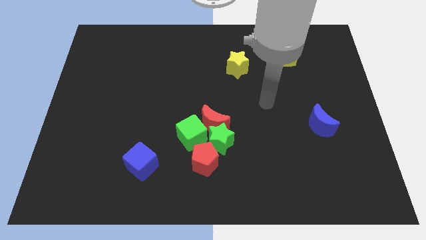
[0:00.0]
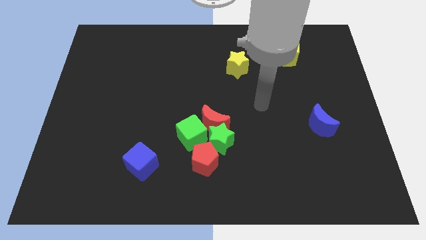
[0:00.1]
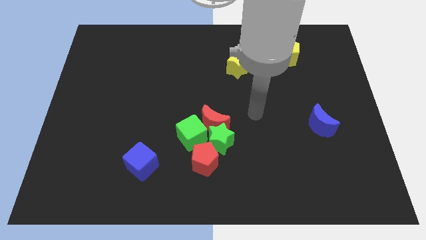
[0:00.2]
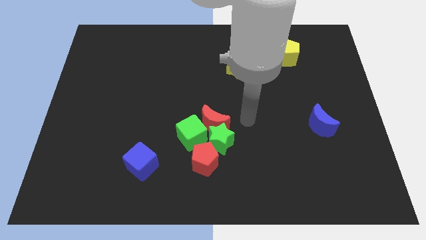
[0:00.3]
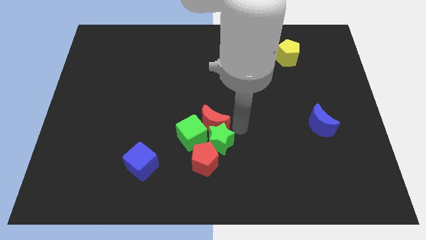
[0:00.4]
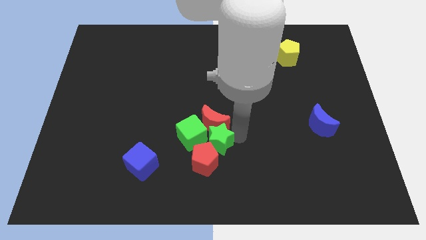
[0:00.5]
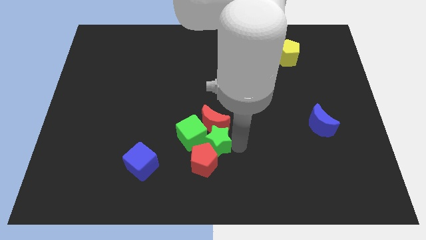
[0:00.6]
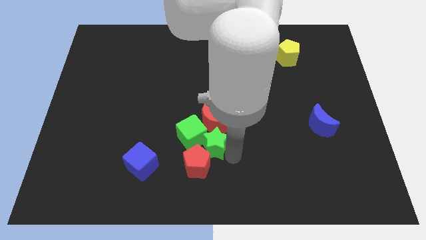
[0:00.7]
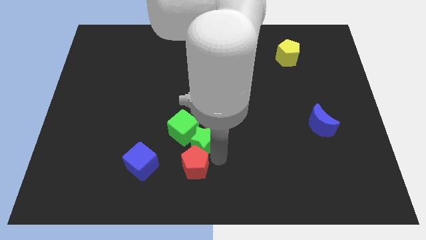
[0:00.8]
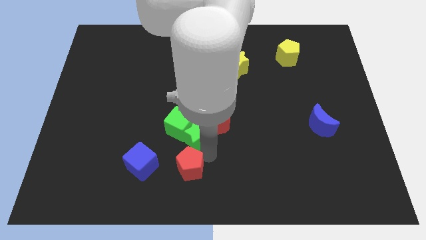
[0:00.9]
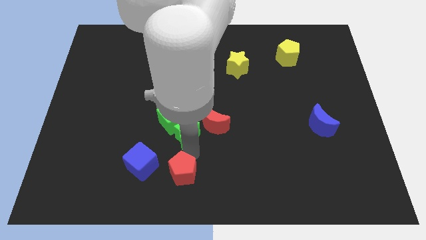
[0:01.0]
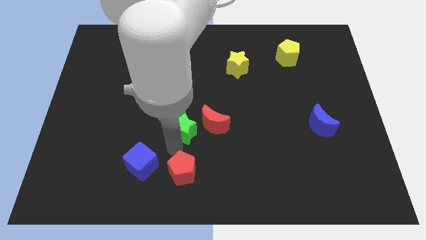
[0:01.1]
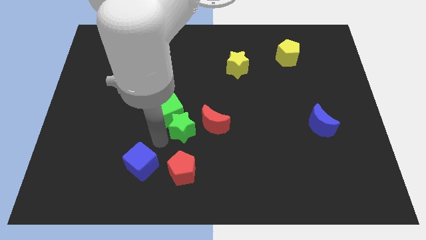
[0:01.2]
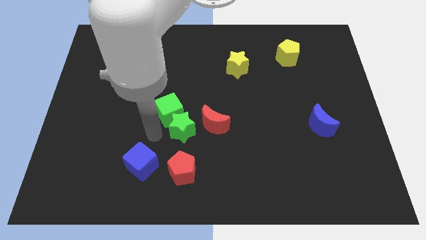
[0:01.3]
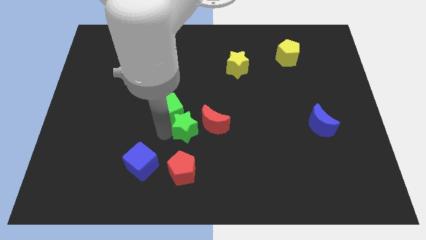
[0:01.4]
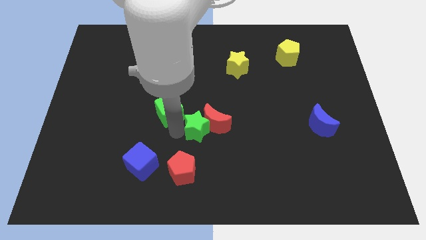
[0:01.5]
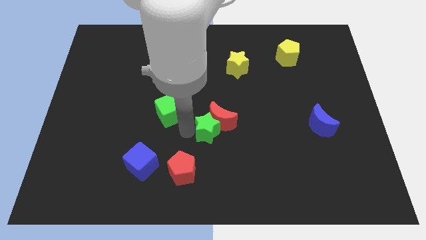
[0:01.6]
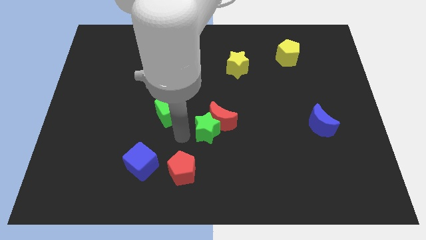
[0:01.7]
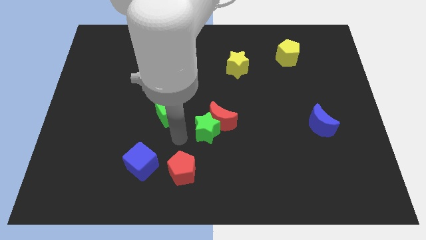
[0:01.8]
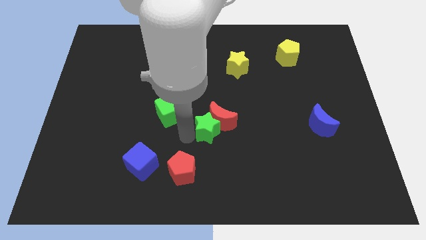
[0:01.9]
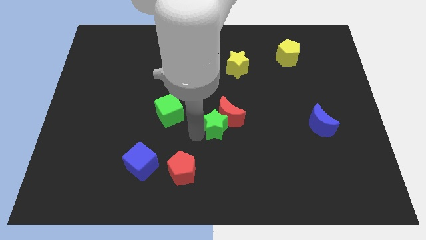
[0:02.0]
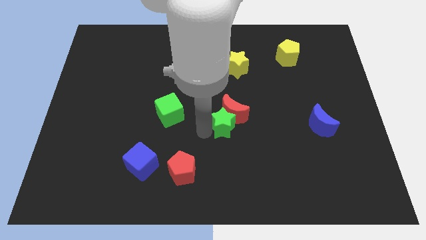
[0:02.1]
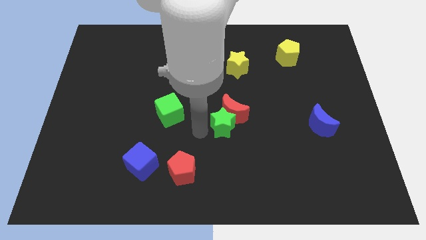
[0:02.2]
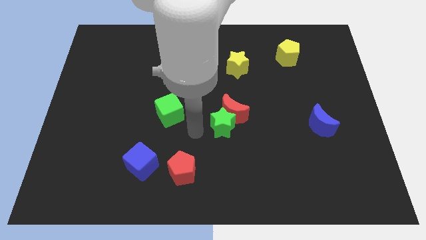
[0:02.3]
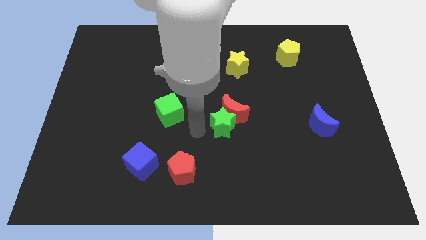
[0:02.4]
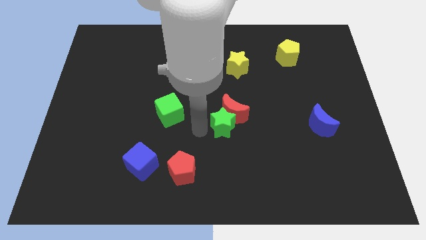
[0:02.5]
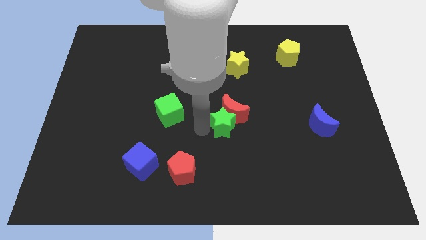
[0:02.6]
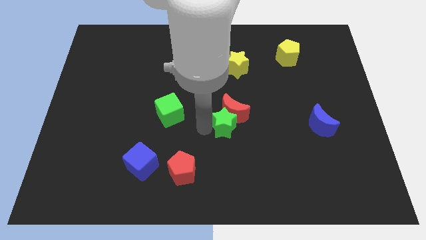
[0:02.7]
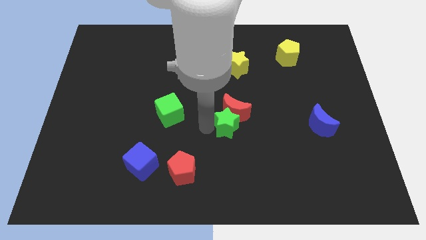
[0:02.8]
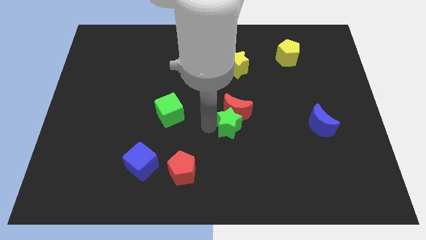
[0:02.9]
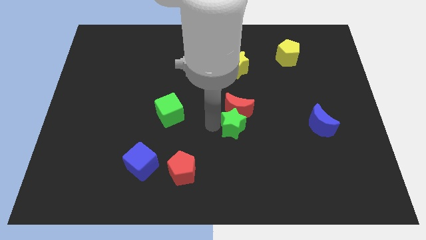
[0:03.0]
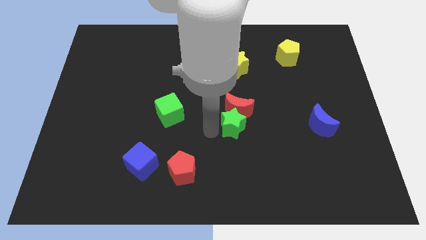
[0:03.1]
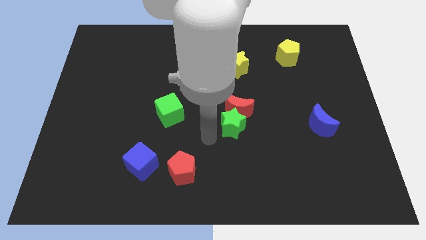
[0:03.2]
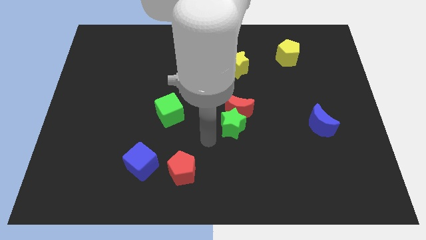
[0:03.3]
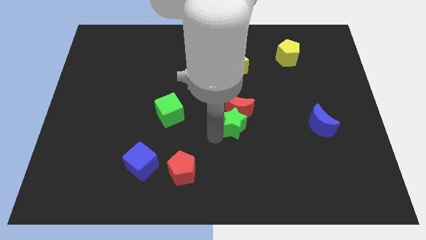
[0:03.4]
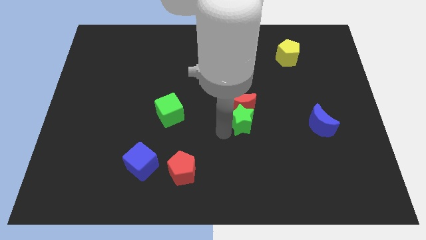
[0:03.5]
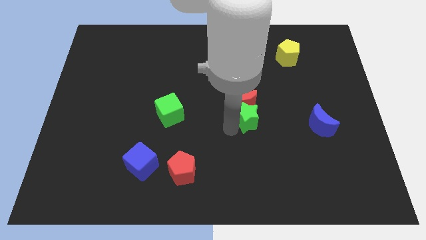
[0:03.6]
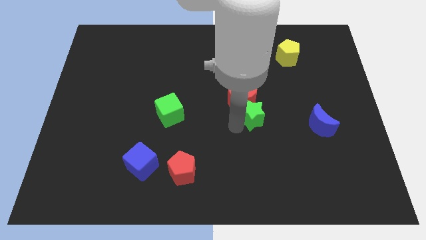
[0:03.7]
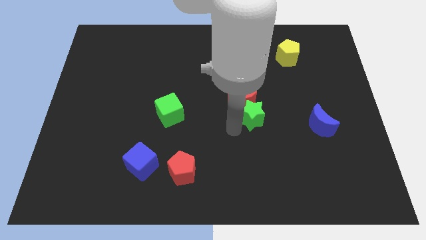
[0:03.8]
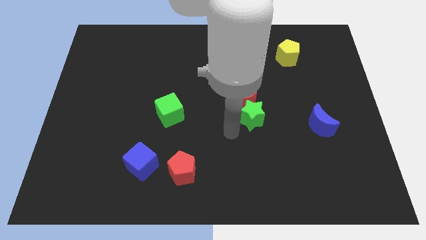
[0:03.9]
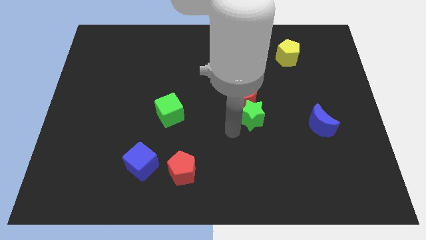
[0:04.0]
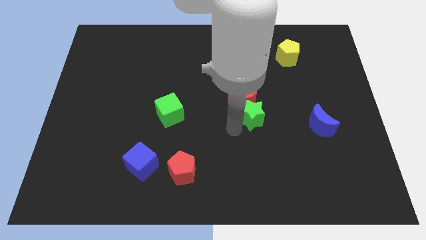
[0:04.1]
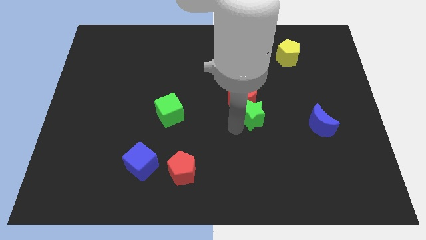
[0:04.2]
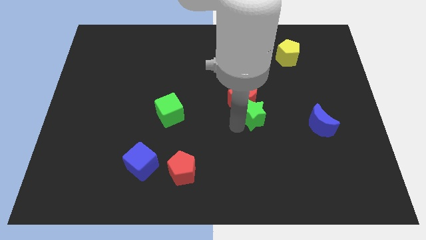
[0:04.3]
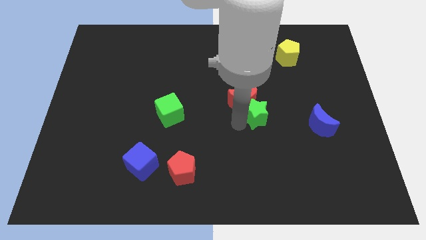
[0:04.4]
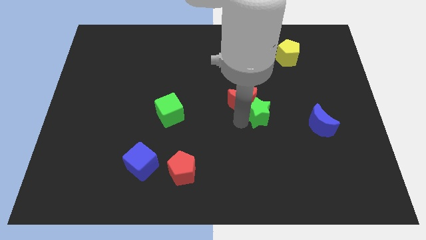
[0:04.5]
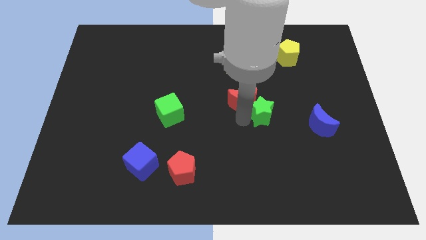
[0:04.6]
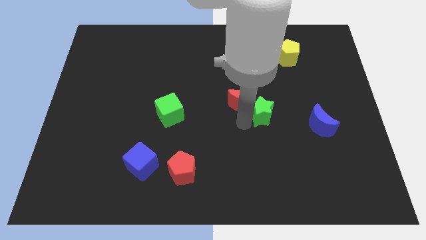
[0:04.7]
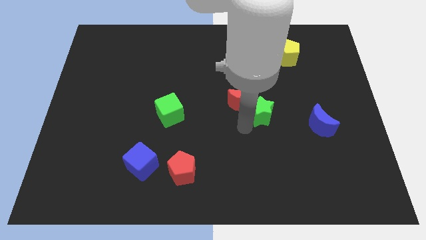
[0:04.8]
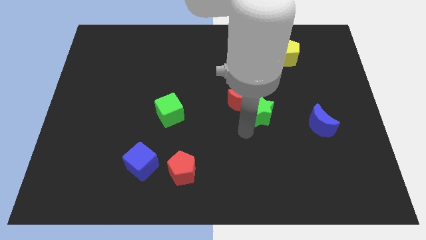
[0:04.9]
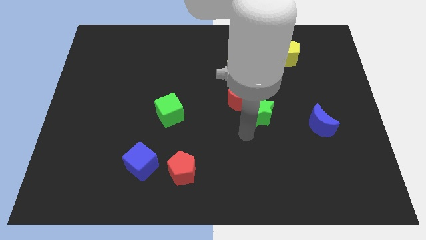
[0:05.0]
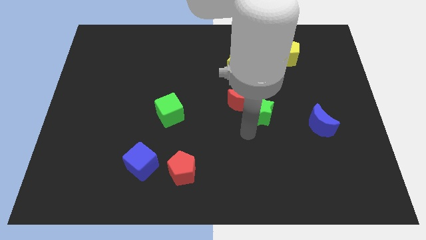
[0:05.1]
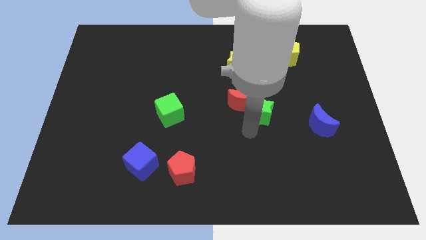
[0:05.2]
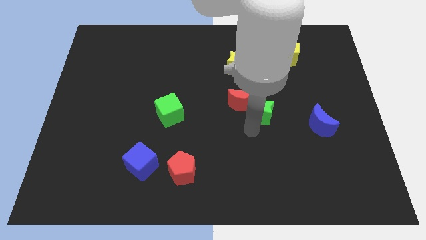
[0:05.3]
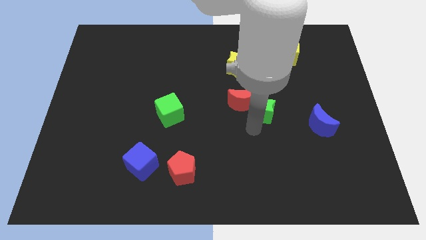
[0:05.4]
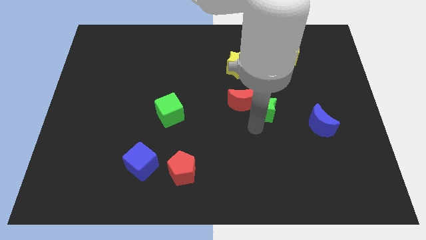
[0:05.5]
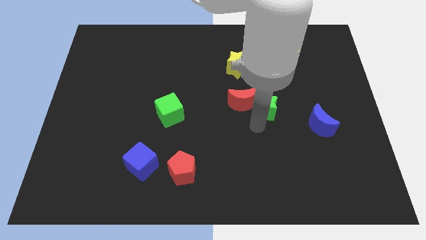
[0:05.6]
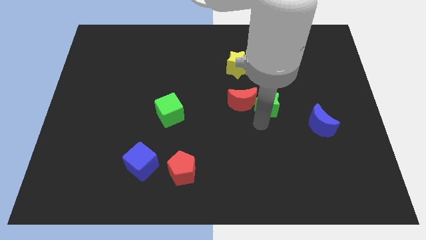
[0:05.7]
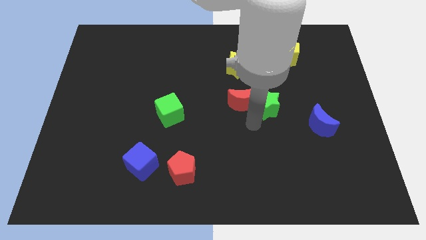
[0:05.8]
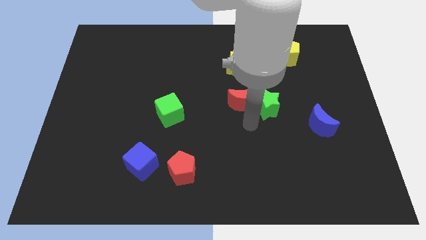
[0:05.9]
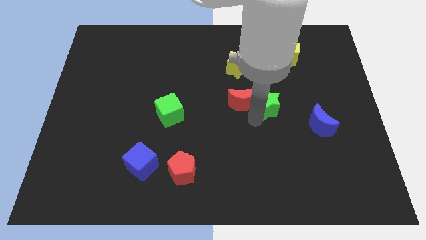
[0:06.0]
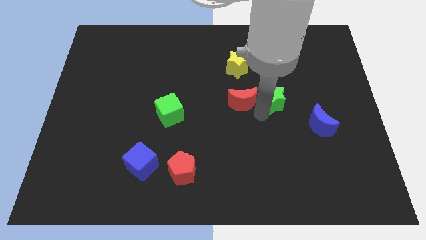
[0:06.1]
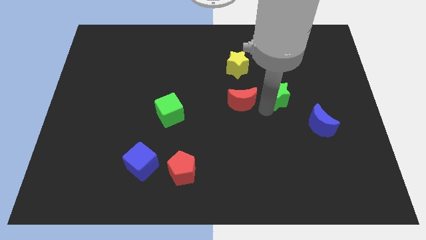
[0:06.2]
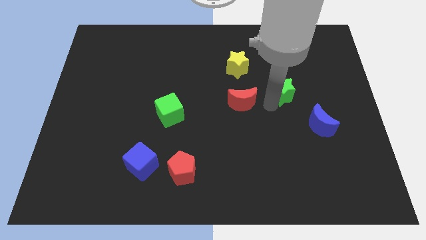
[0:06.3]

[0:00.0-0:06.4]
put the green star below the yellow pentagon

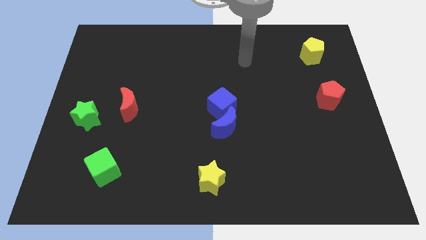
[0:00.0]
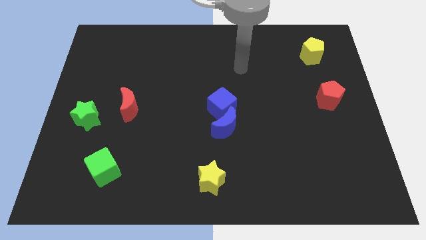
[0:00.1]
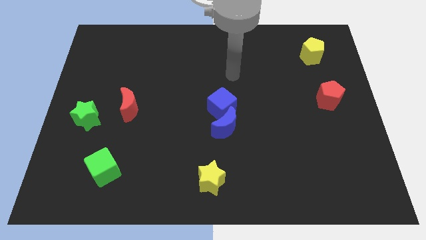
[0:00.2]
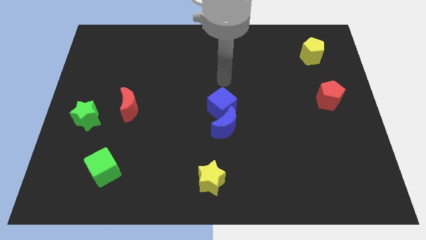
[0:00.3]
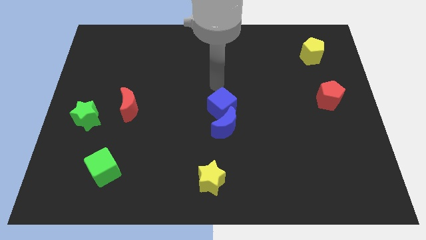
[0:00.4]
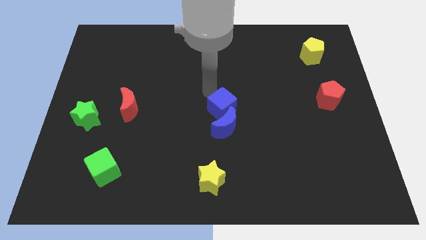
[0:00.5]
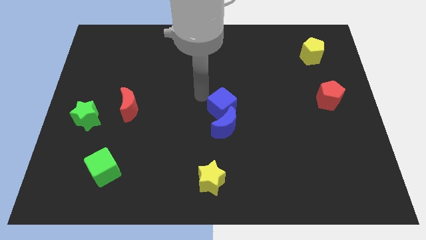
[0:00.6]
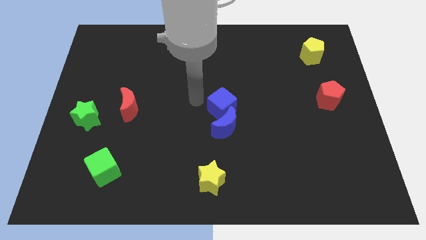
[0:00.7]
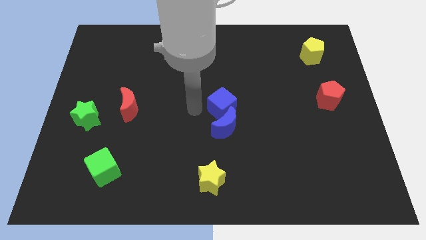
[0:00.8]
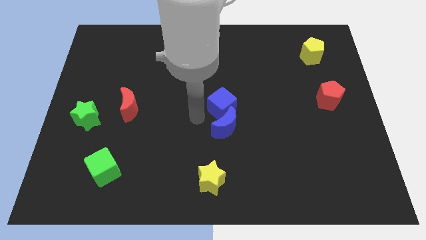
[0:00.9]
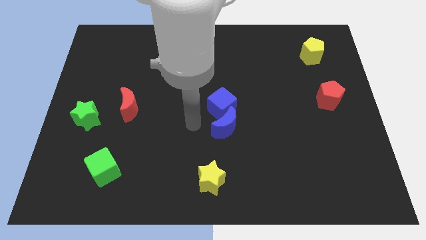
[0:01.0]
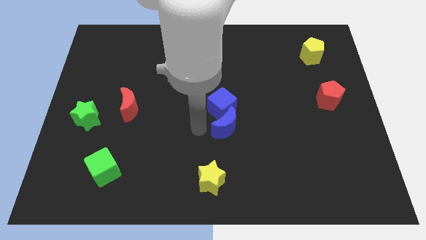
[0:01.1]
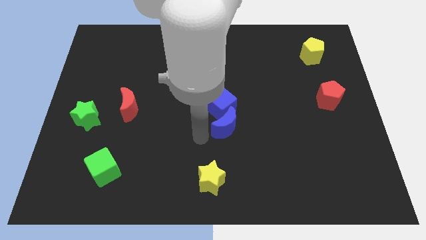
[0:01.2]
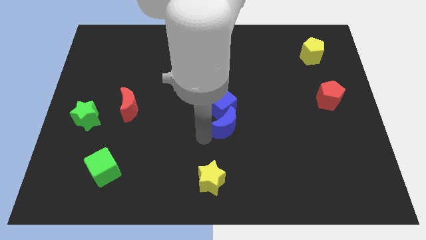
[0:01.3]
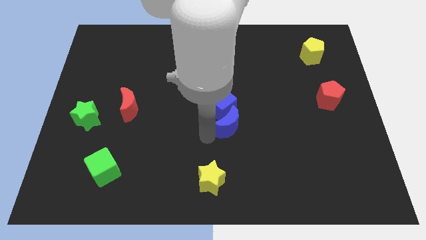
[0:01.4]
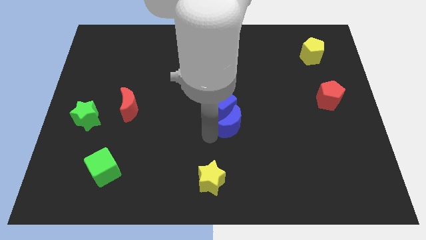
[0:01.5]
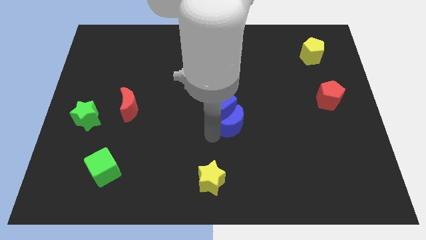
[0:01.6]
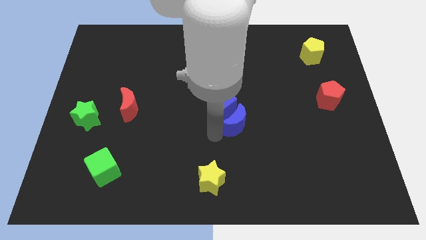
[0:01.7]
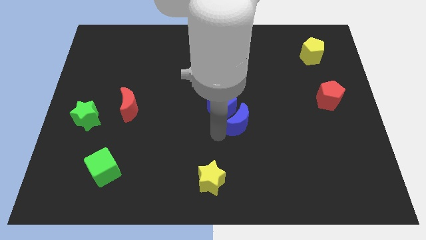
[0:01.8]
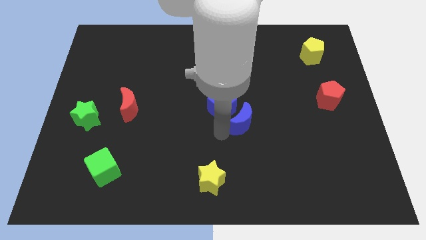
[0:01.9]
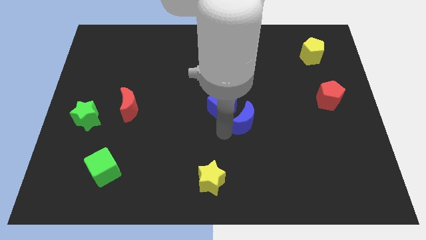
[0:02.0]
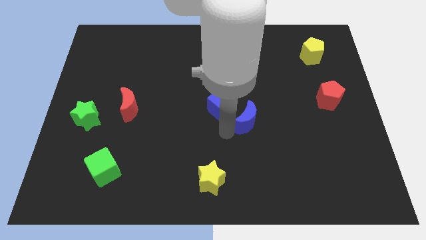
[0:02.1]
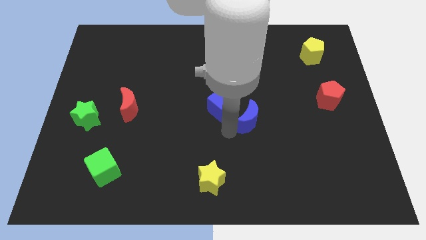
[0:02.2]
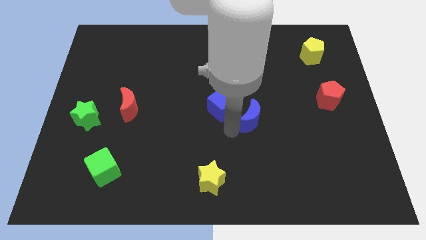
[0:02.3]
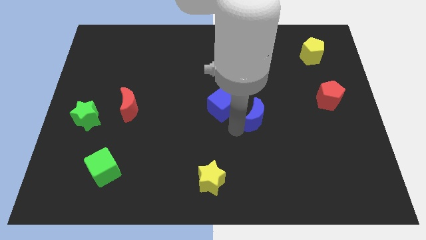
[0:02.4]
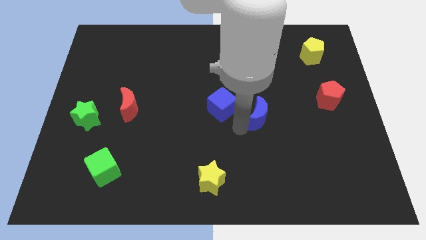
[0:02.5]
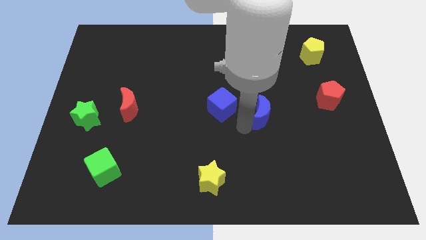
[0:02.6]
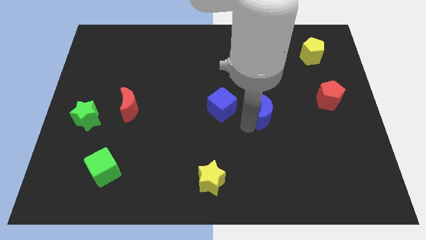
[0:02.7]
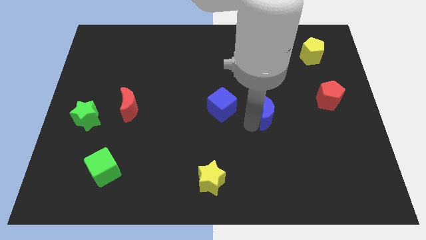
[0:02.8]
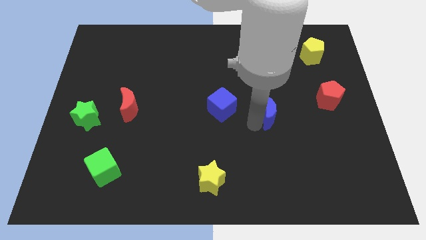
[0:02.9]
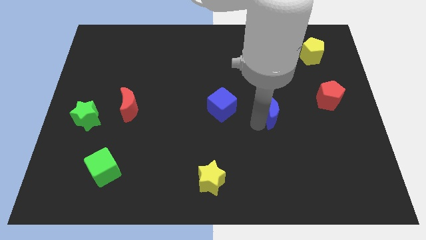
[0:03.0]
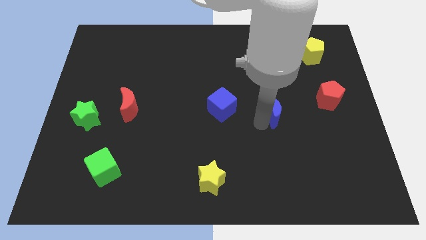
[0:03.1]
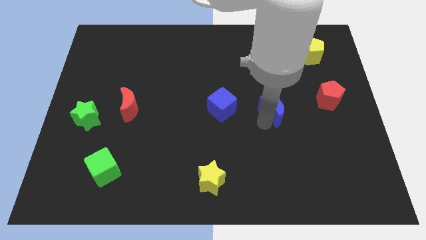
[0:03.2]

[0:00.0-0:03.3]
push the blue moon to the left of the red pentagon
